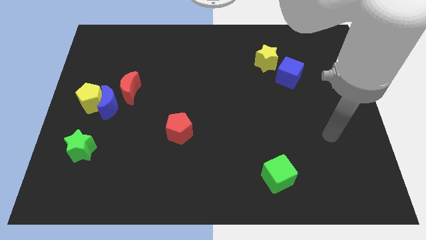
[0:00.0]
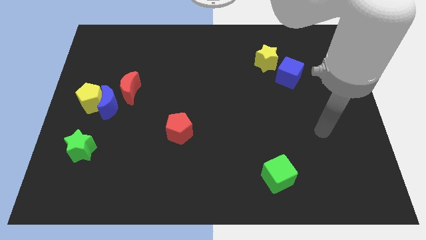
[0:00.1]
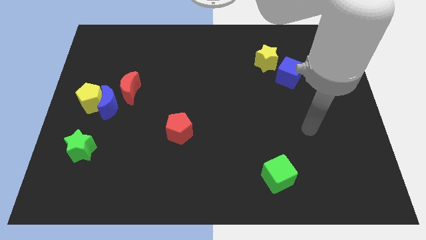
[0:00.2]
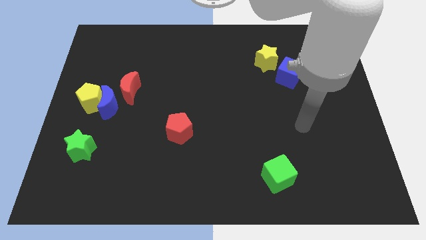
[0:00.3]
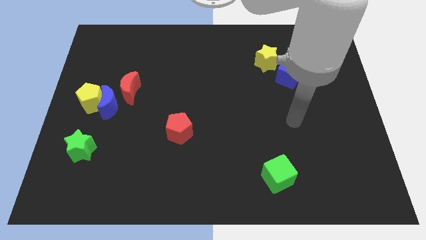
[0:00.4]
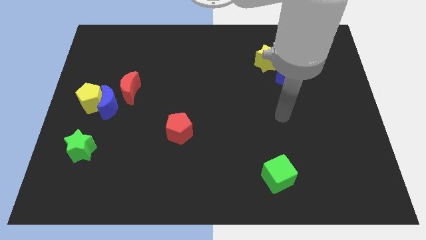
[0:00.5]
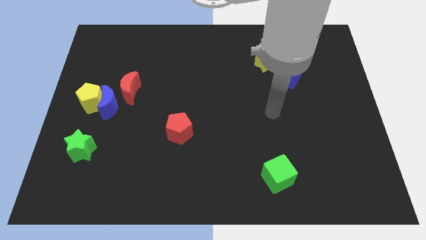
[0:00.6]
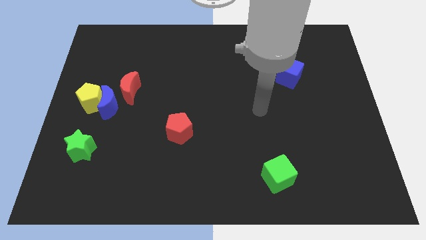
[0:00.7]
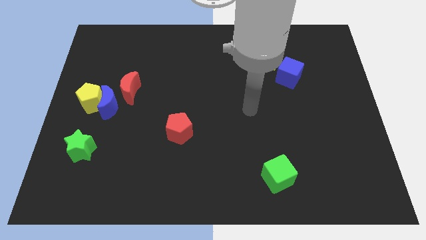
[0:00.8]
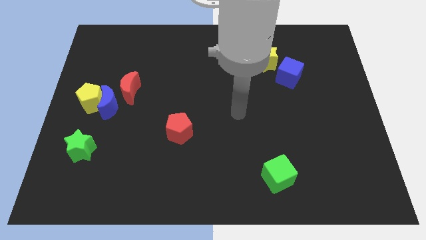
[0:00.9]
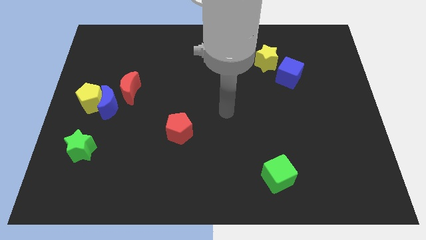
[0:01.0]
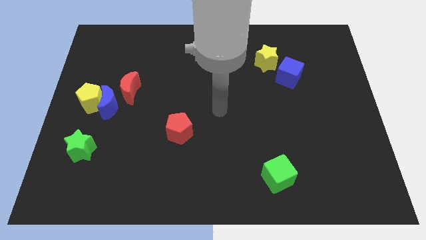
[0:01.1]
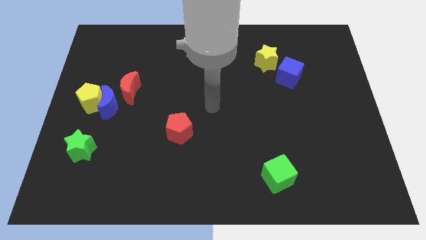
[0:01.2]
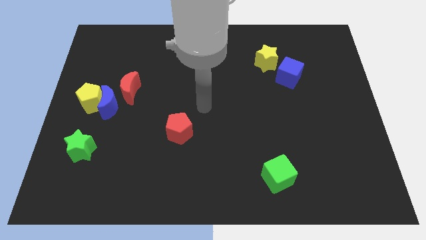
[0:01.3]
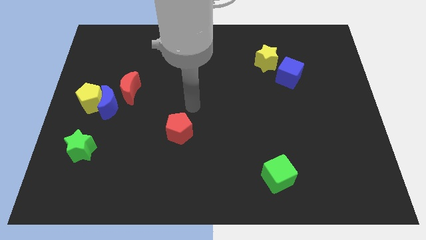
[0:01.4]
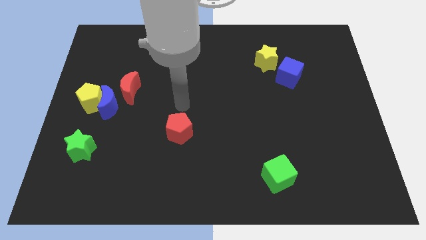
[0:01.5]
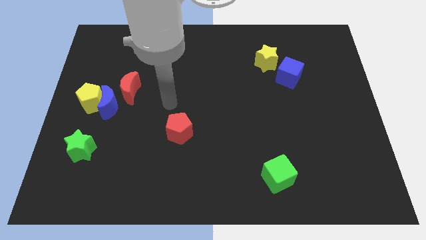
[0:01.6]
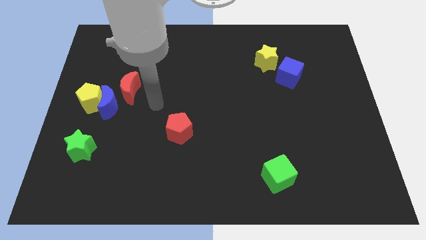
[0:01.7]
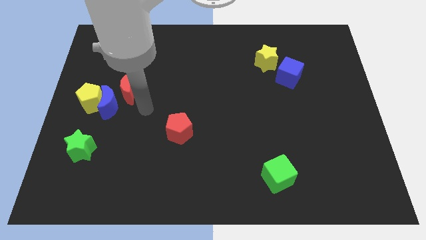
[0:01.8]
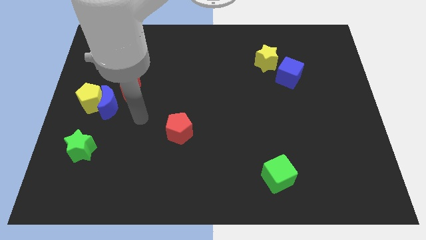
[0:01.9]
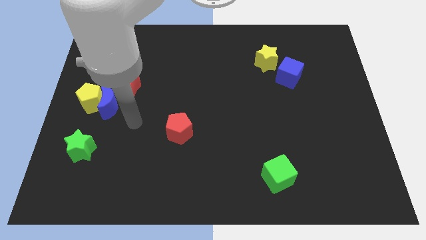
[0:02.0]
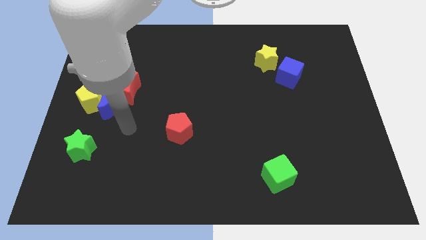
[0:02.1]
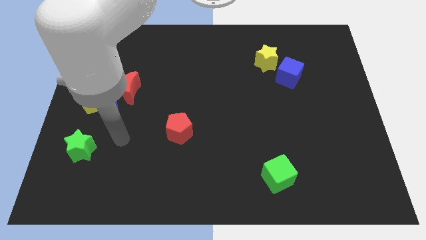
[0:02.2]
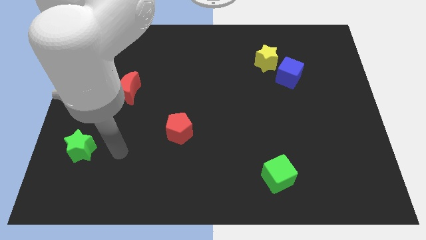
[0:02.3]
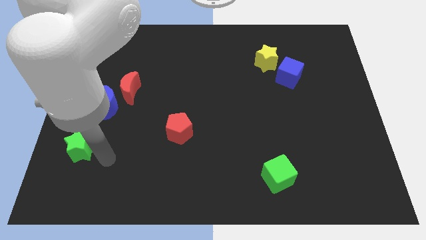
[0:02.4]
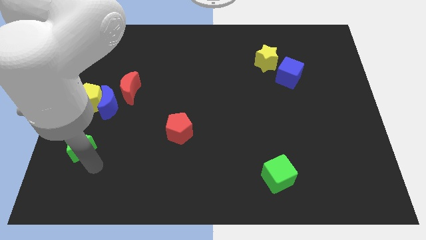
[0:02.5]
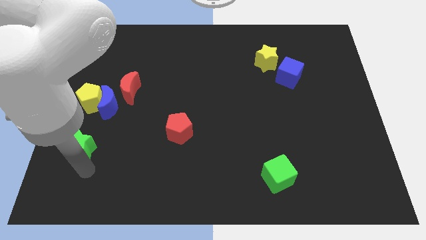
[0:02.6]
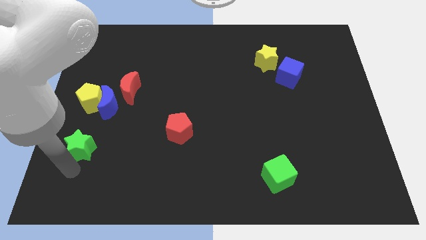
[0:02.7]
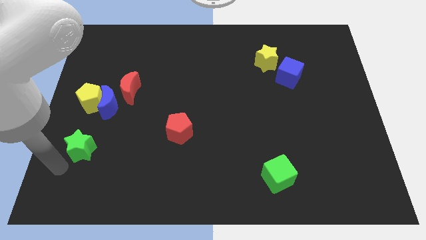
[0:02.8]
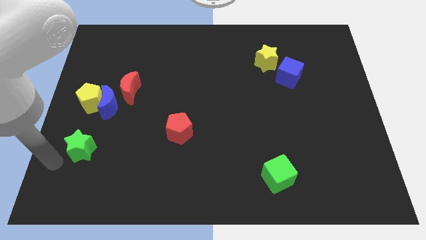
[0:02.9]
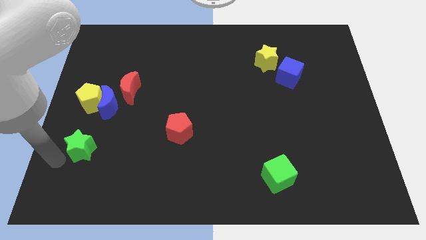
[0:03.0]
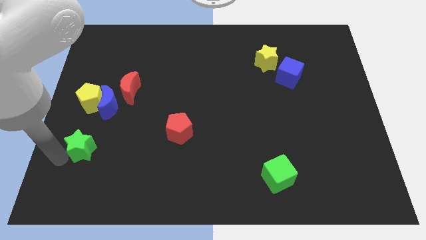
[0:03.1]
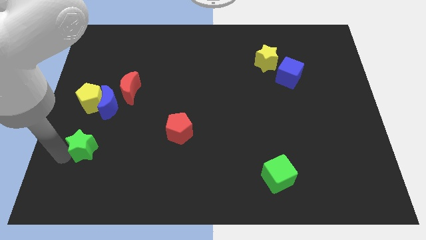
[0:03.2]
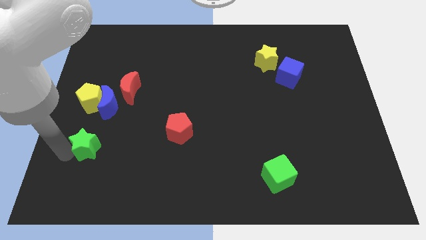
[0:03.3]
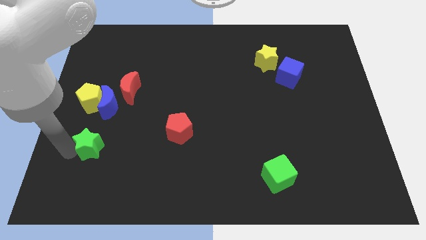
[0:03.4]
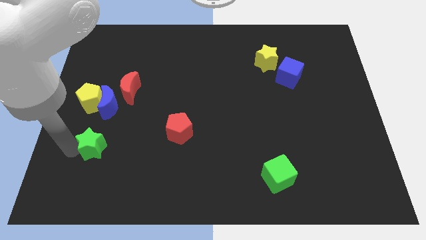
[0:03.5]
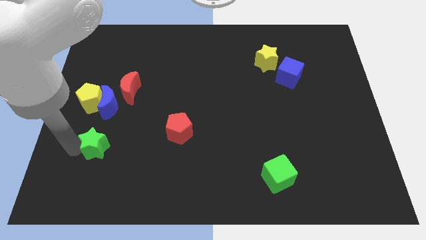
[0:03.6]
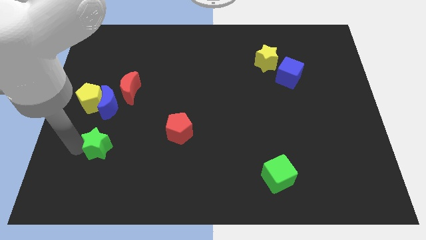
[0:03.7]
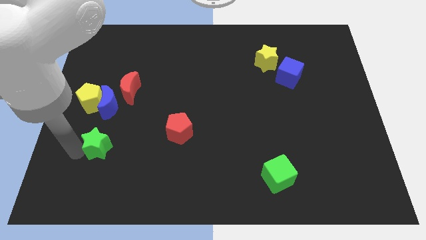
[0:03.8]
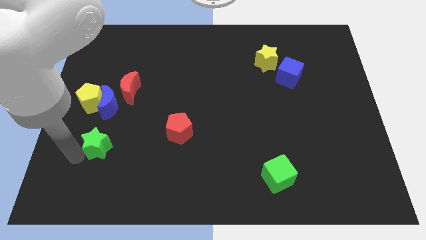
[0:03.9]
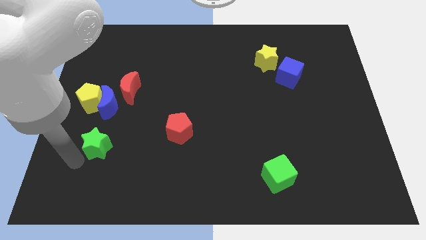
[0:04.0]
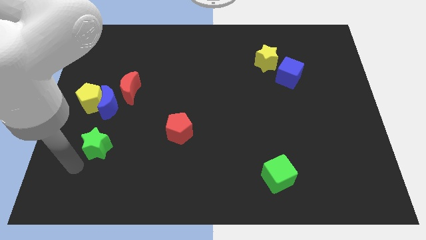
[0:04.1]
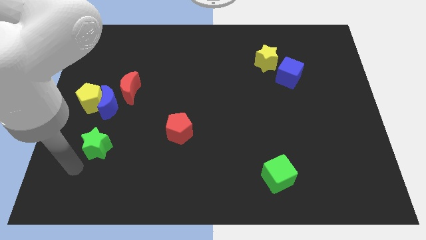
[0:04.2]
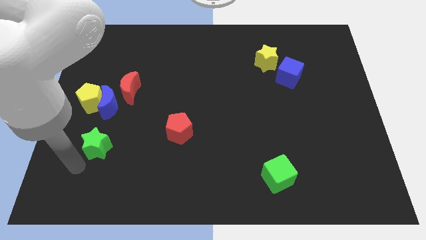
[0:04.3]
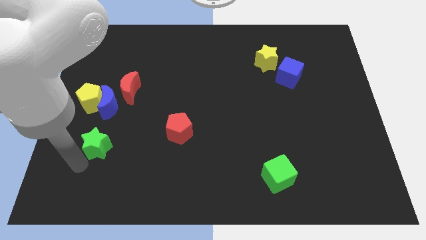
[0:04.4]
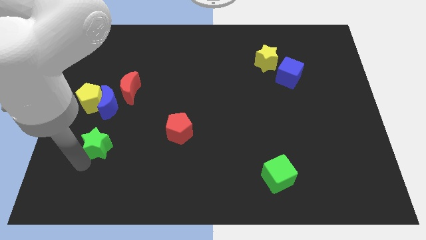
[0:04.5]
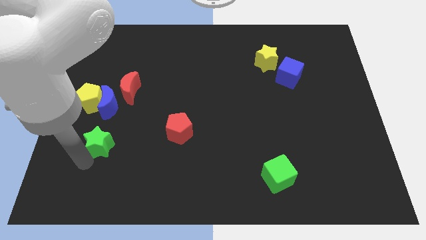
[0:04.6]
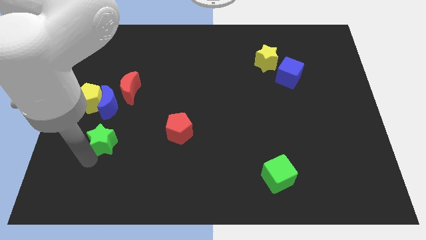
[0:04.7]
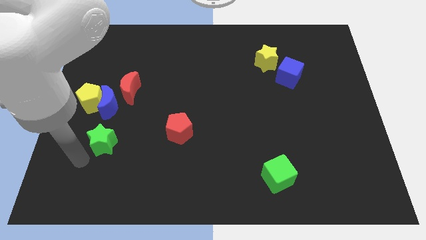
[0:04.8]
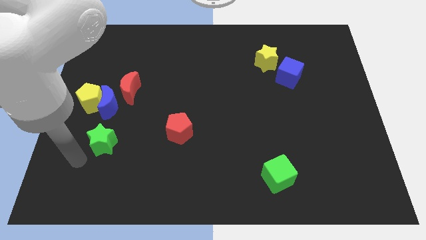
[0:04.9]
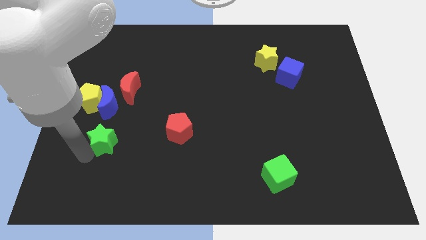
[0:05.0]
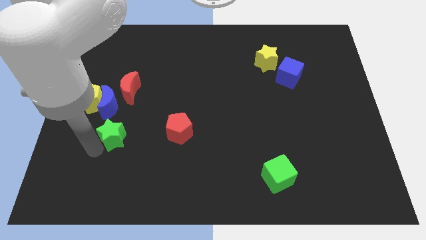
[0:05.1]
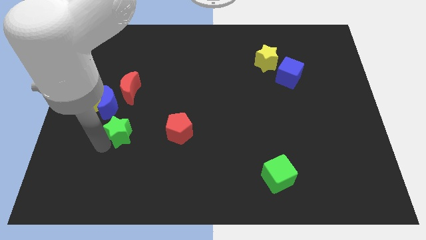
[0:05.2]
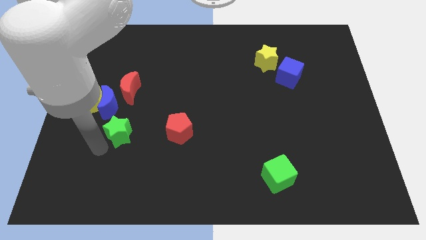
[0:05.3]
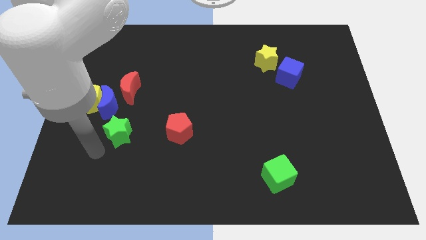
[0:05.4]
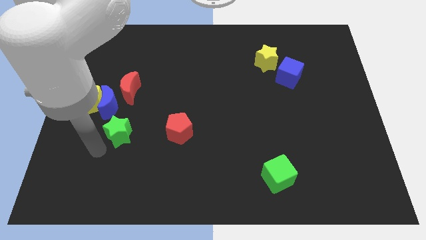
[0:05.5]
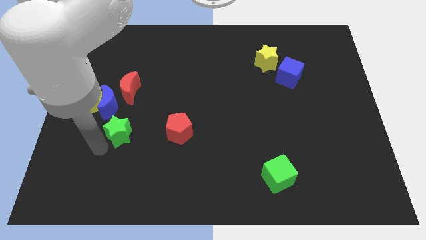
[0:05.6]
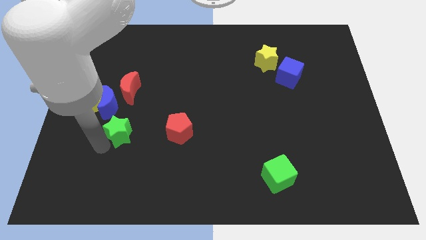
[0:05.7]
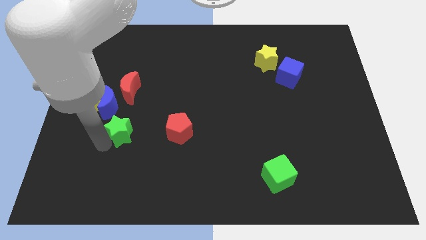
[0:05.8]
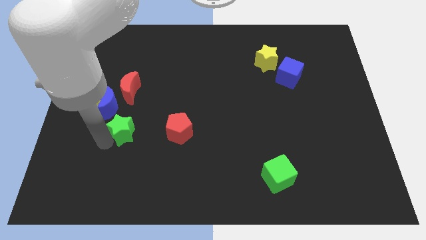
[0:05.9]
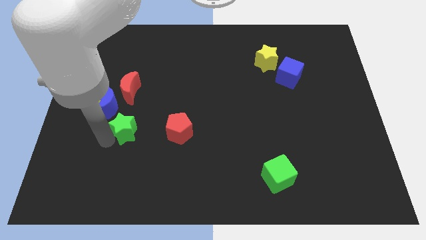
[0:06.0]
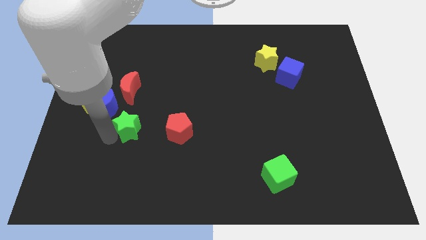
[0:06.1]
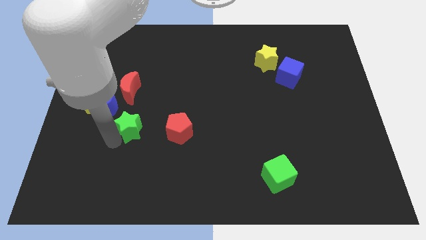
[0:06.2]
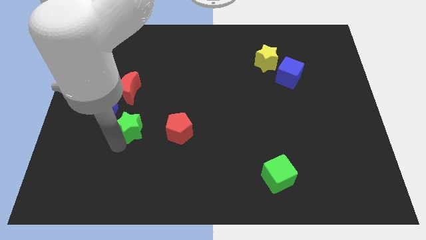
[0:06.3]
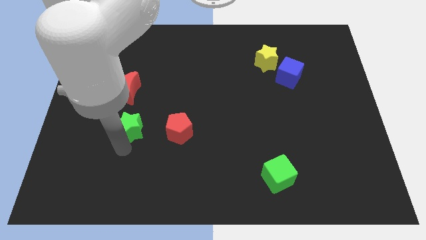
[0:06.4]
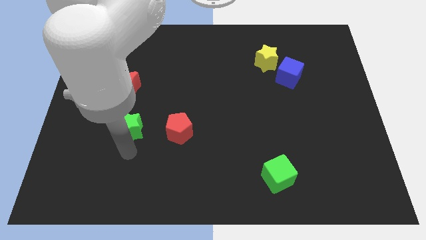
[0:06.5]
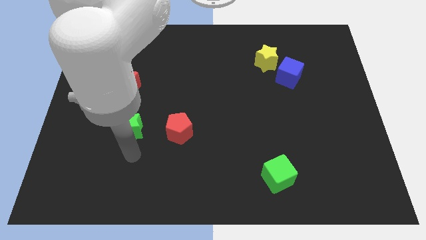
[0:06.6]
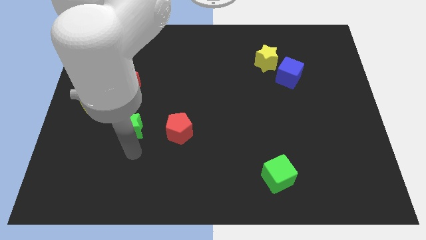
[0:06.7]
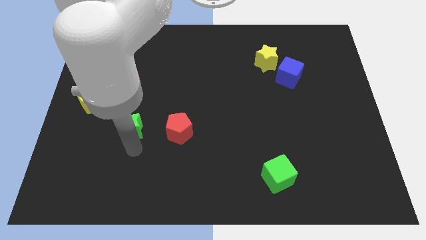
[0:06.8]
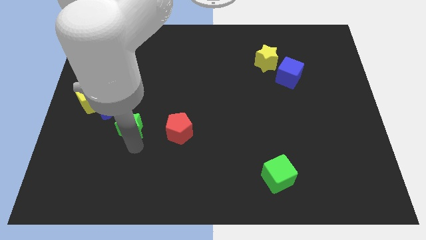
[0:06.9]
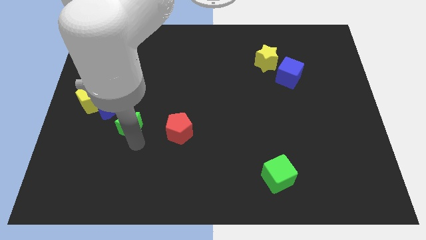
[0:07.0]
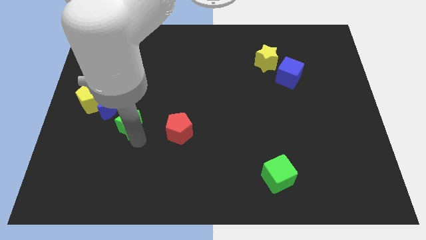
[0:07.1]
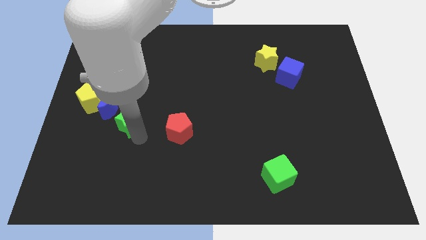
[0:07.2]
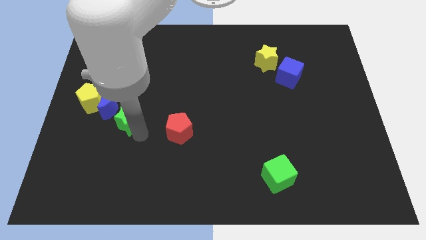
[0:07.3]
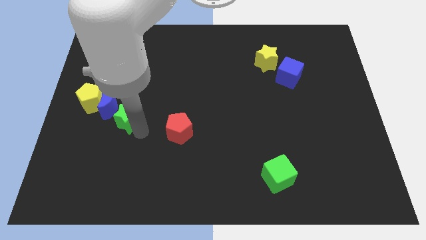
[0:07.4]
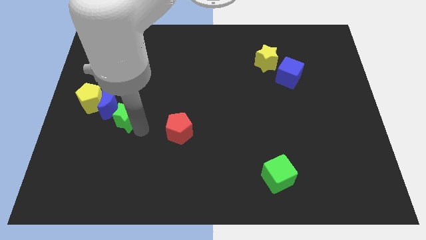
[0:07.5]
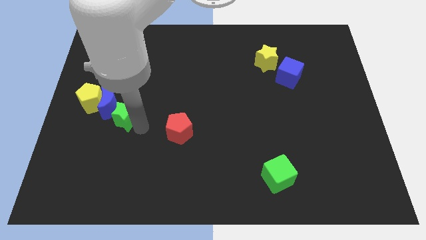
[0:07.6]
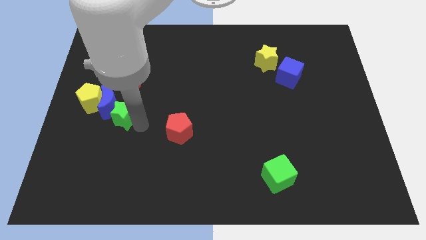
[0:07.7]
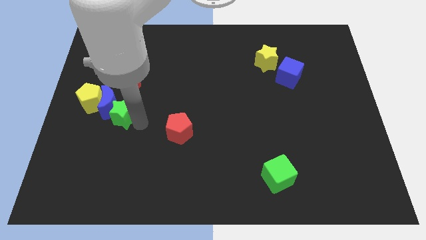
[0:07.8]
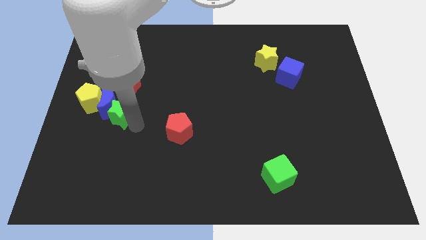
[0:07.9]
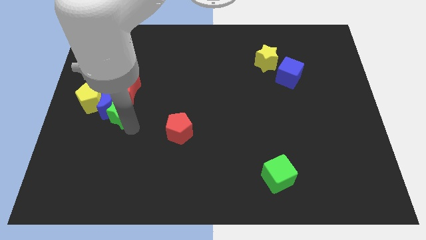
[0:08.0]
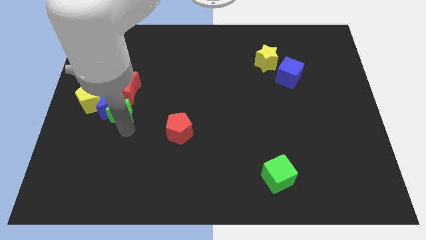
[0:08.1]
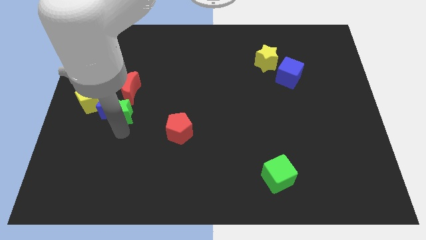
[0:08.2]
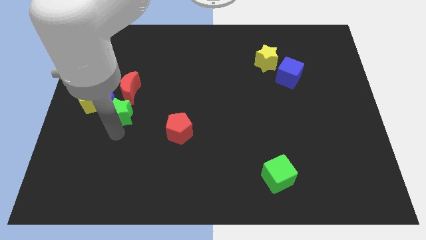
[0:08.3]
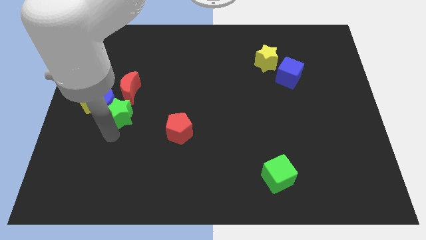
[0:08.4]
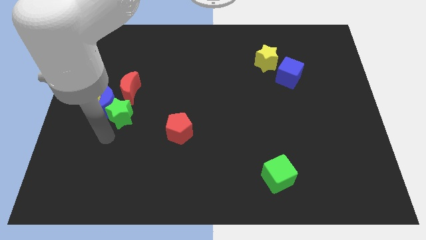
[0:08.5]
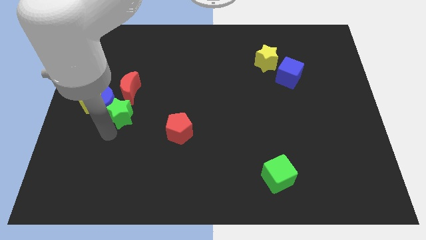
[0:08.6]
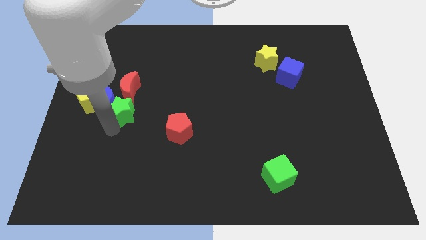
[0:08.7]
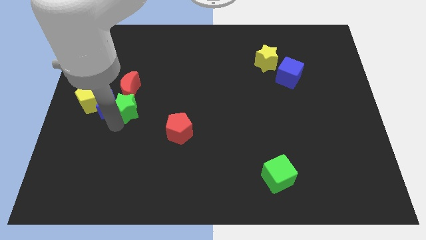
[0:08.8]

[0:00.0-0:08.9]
put the green star to the red moon
